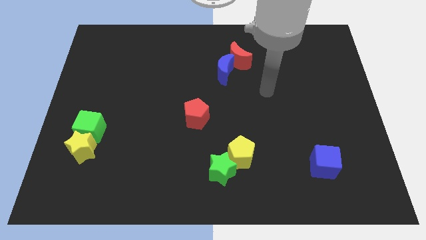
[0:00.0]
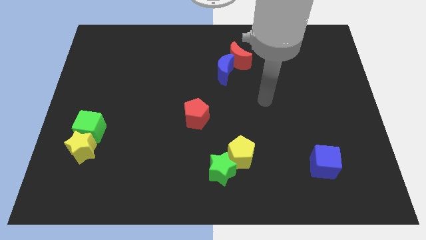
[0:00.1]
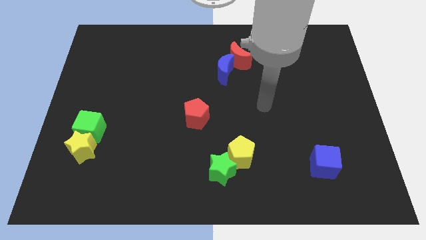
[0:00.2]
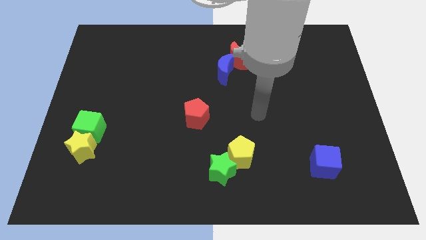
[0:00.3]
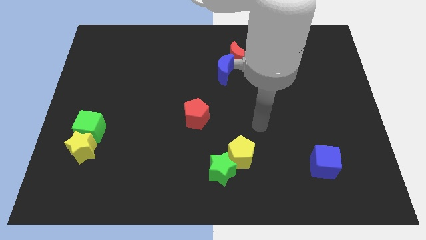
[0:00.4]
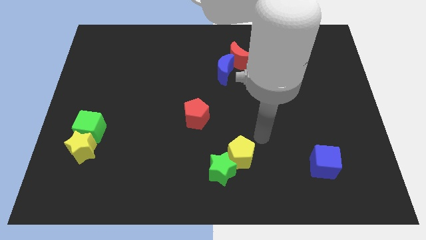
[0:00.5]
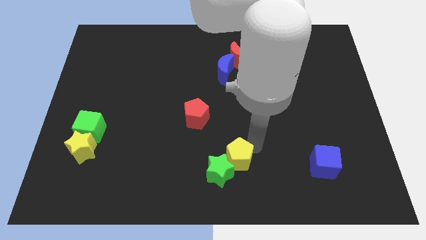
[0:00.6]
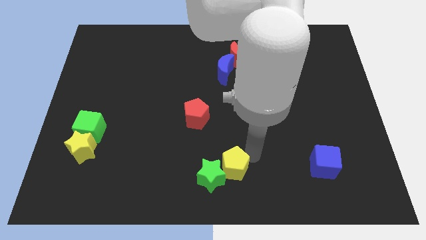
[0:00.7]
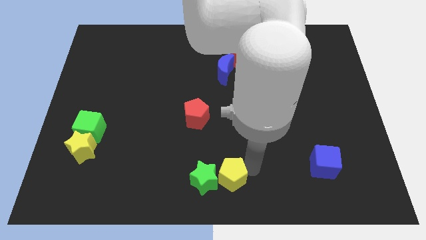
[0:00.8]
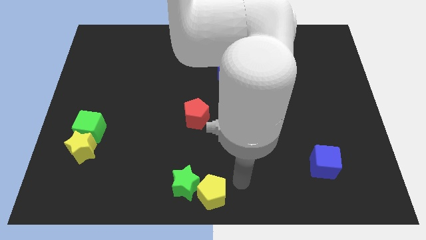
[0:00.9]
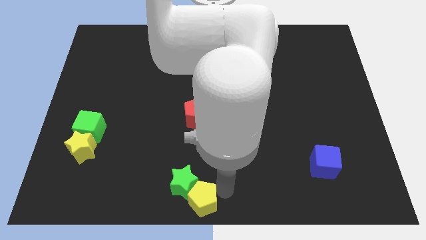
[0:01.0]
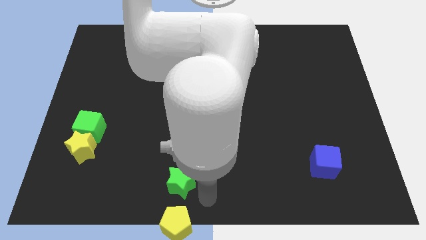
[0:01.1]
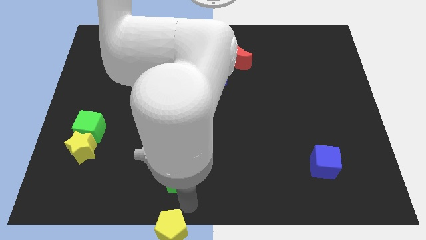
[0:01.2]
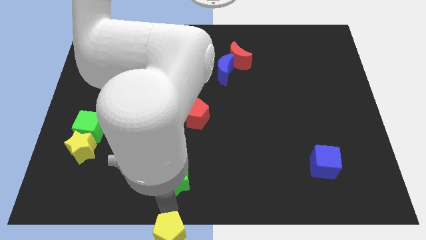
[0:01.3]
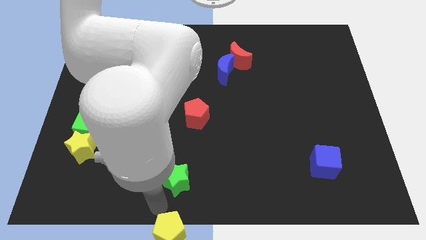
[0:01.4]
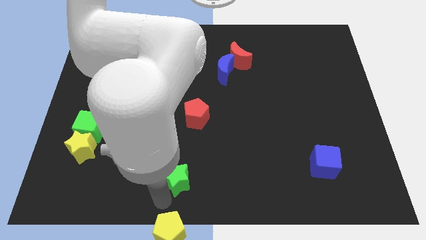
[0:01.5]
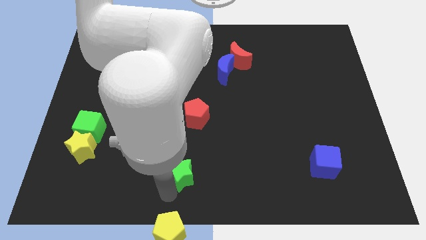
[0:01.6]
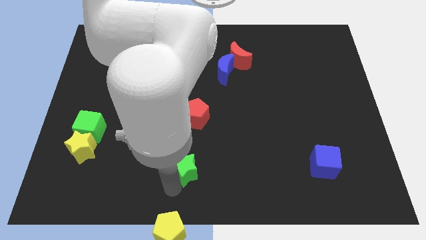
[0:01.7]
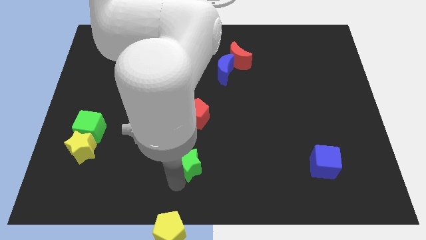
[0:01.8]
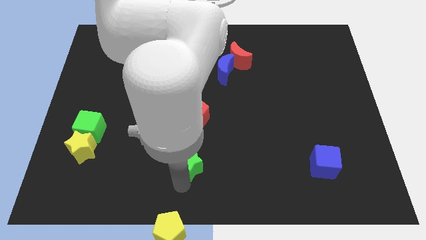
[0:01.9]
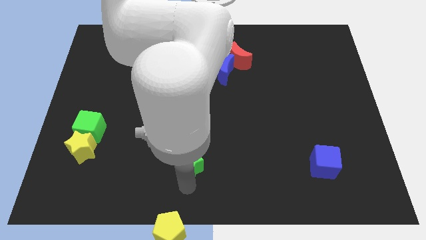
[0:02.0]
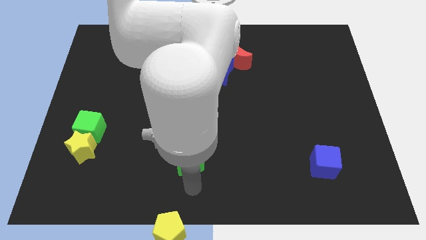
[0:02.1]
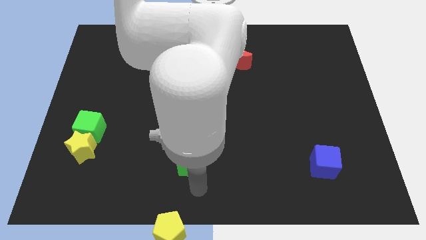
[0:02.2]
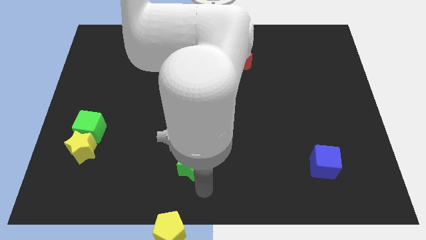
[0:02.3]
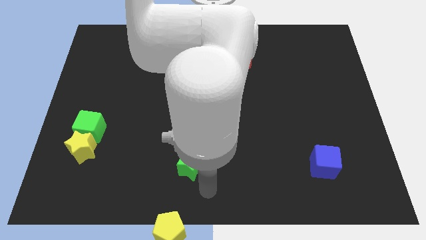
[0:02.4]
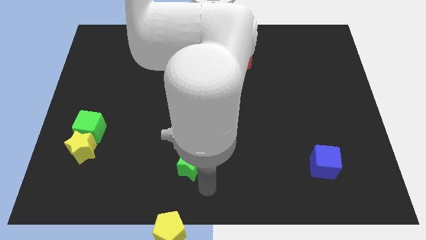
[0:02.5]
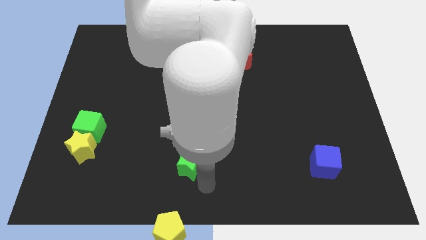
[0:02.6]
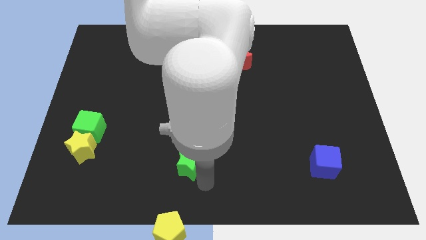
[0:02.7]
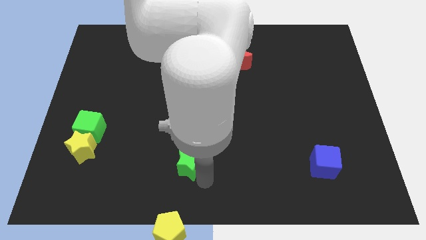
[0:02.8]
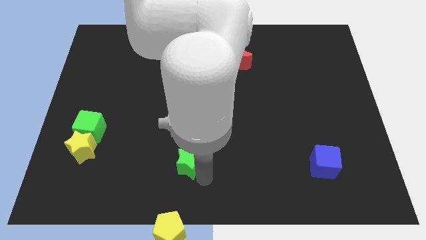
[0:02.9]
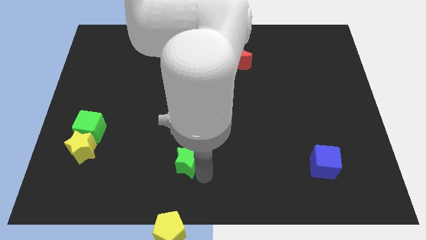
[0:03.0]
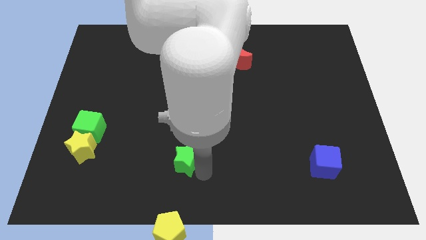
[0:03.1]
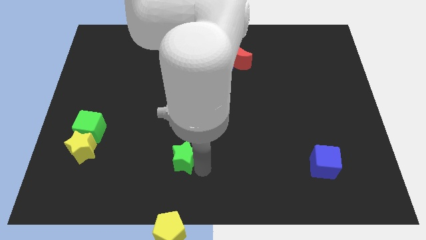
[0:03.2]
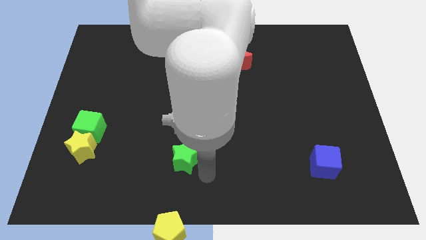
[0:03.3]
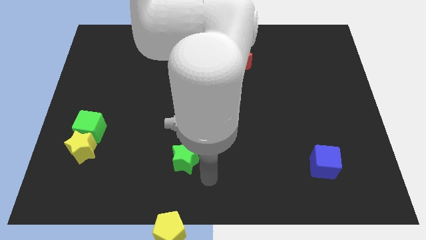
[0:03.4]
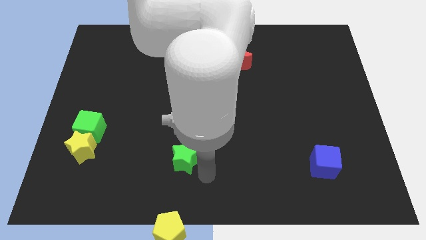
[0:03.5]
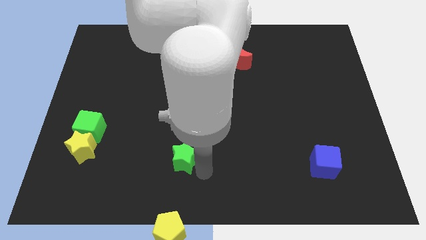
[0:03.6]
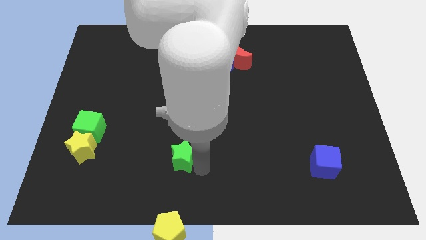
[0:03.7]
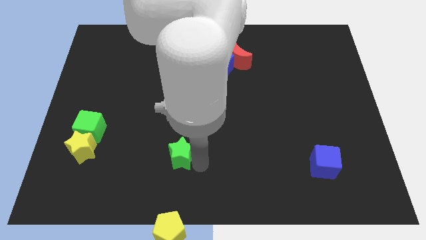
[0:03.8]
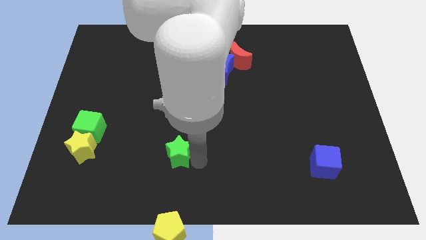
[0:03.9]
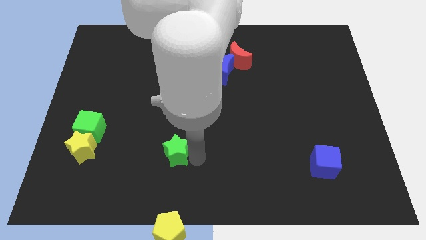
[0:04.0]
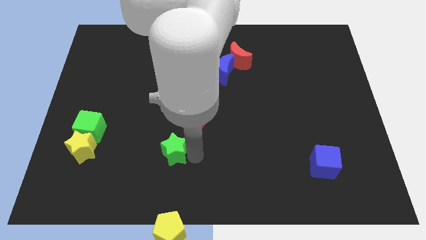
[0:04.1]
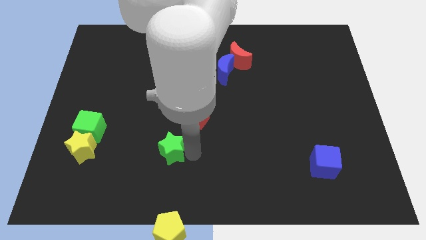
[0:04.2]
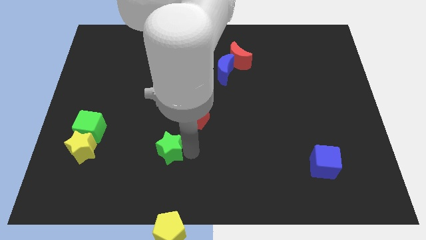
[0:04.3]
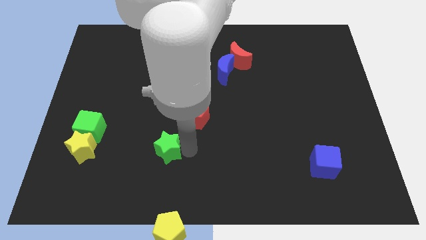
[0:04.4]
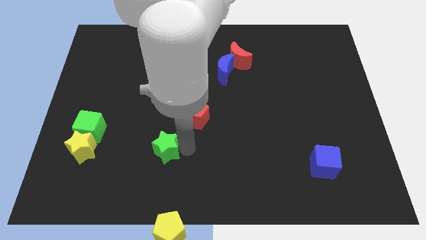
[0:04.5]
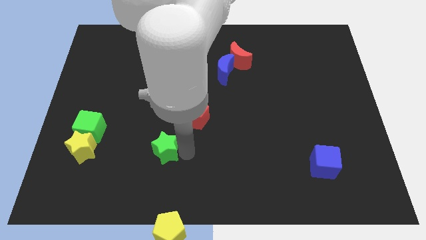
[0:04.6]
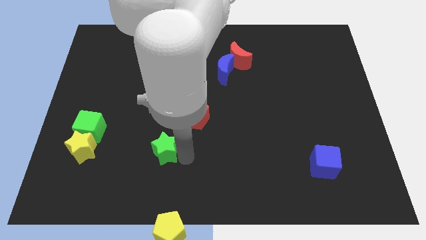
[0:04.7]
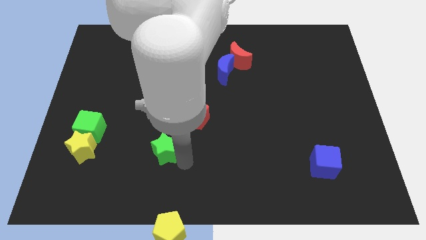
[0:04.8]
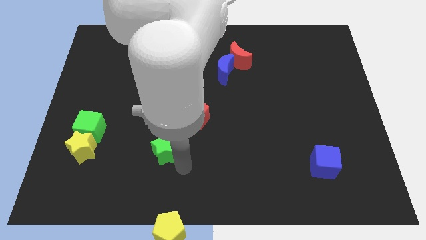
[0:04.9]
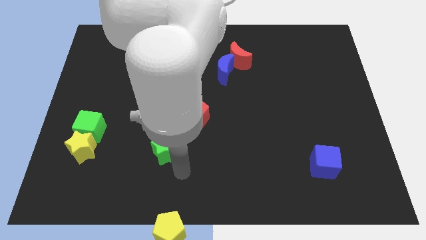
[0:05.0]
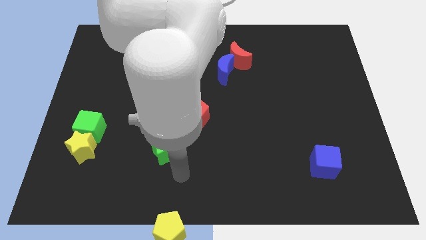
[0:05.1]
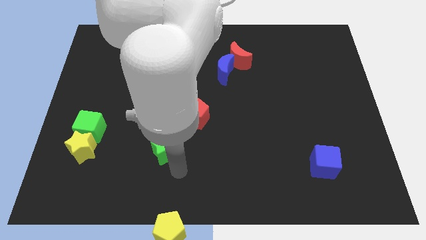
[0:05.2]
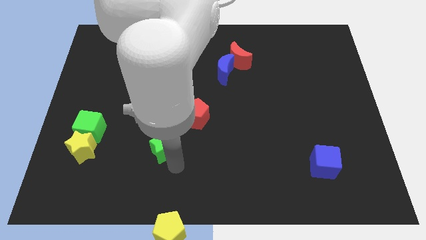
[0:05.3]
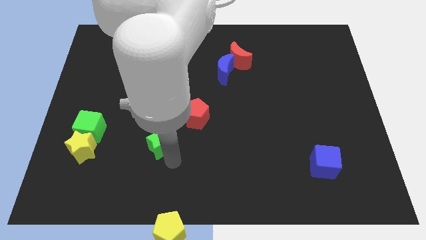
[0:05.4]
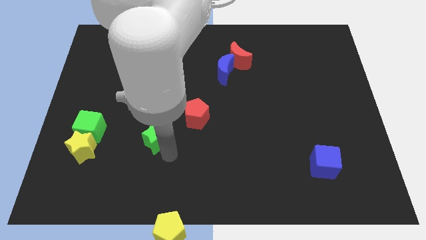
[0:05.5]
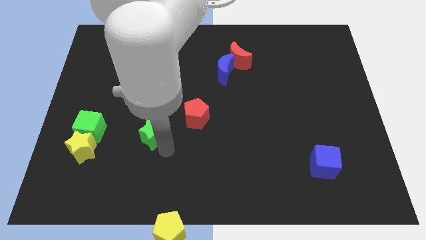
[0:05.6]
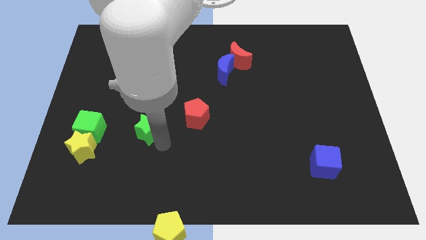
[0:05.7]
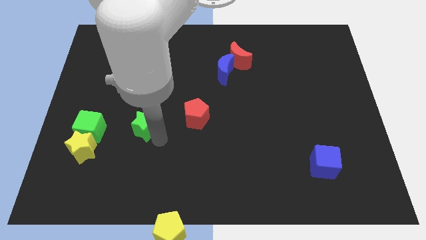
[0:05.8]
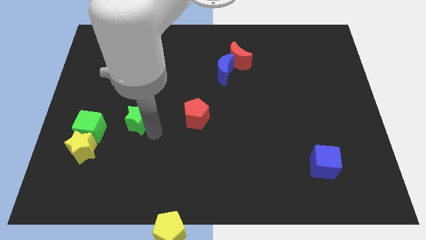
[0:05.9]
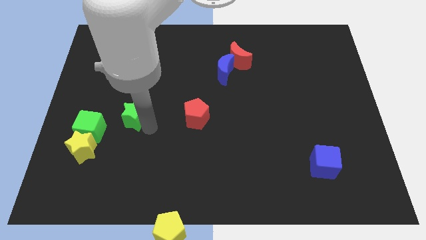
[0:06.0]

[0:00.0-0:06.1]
move the green star to the top right side of the green cube

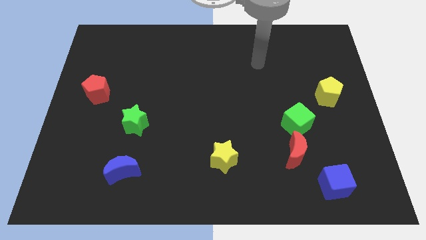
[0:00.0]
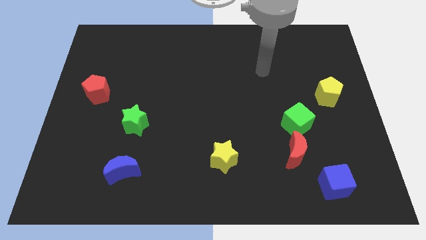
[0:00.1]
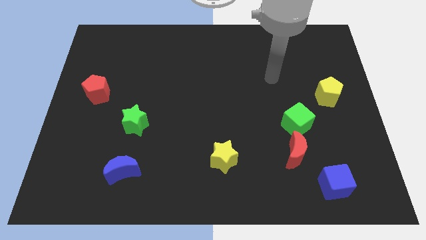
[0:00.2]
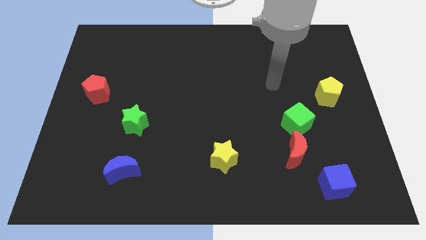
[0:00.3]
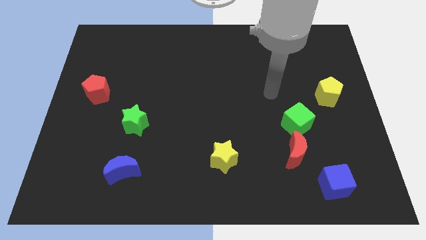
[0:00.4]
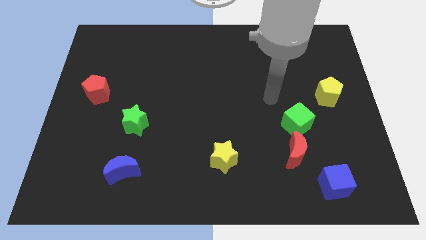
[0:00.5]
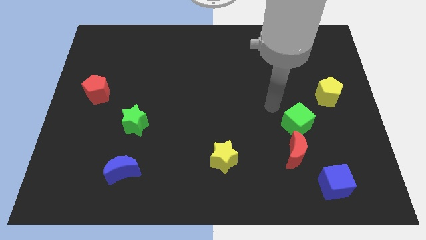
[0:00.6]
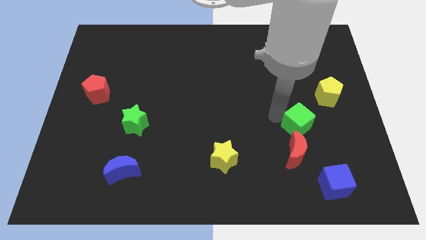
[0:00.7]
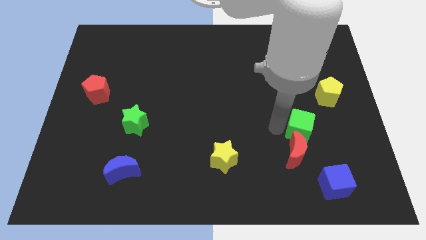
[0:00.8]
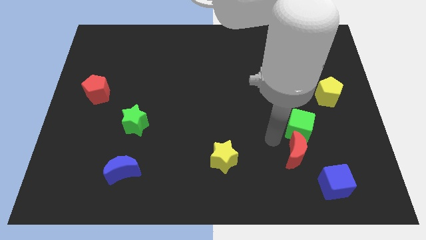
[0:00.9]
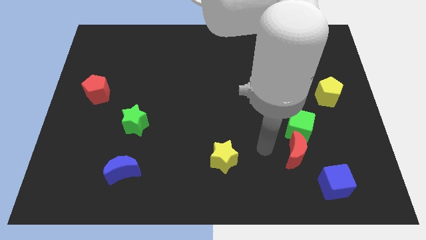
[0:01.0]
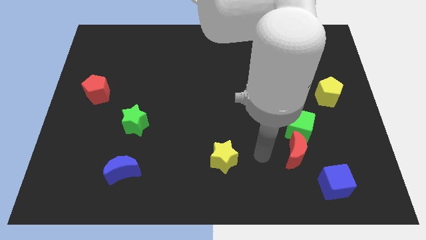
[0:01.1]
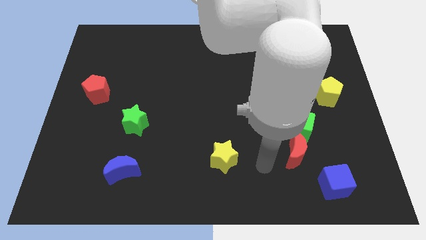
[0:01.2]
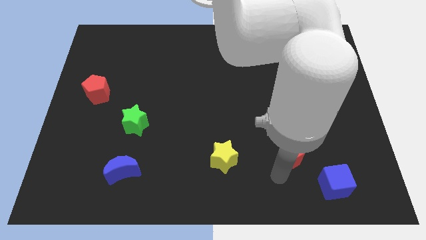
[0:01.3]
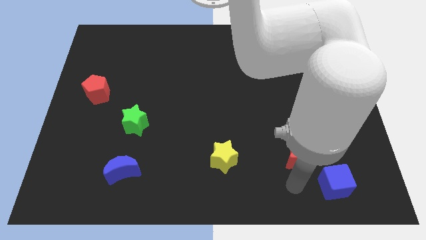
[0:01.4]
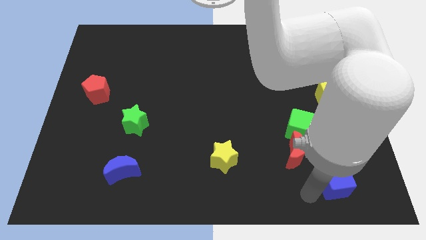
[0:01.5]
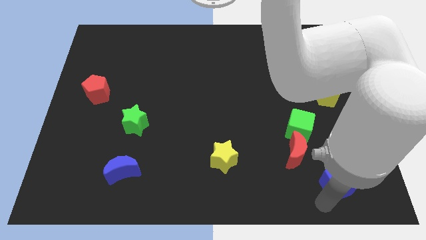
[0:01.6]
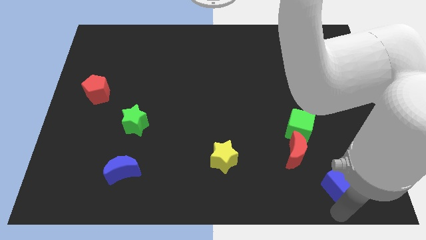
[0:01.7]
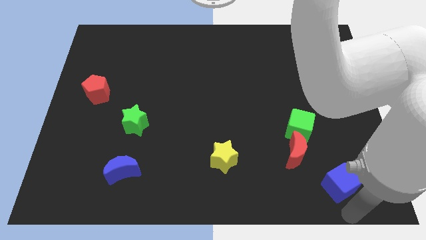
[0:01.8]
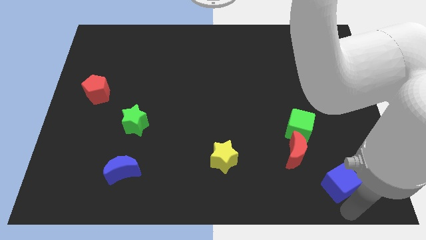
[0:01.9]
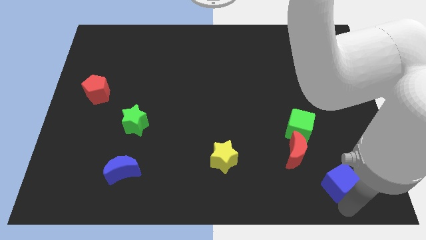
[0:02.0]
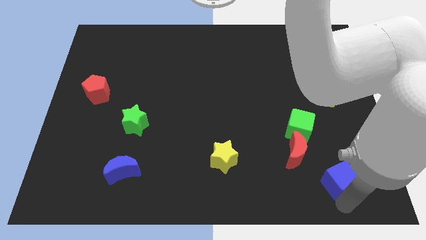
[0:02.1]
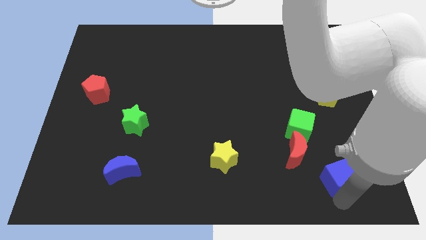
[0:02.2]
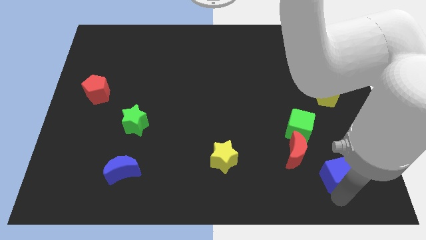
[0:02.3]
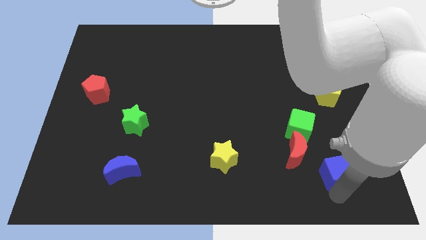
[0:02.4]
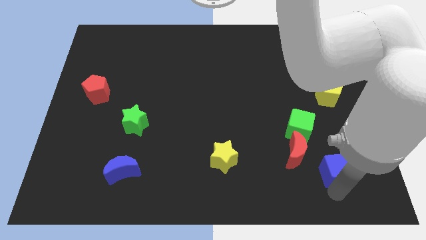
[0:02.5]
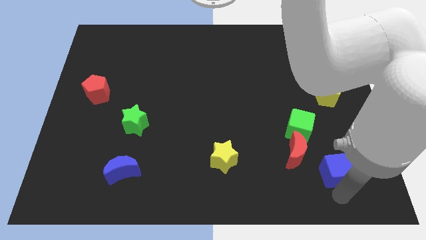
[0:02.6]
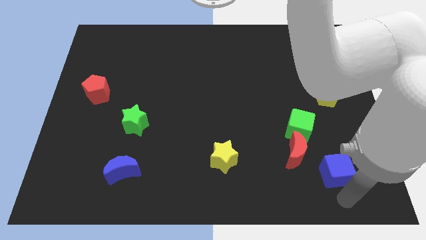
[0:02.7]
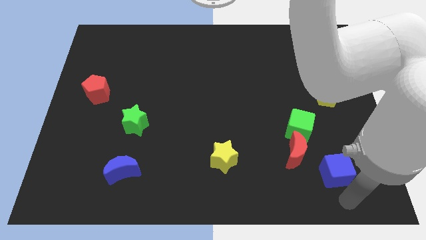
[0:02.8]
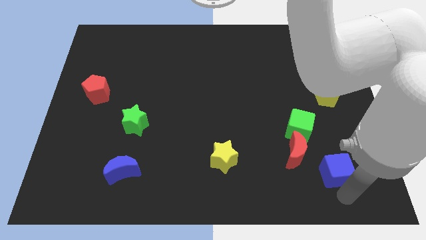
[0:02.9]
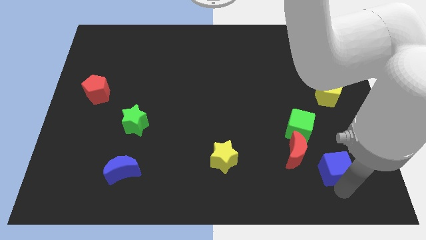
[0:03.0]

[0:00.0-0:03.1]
slide the blue cube to the bottom right of the green cube
